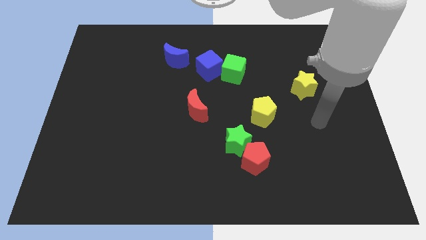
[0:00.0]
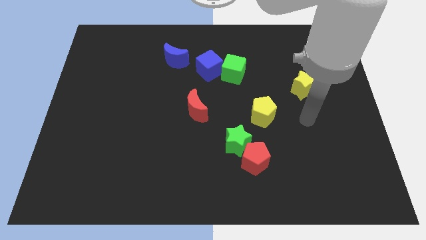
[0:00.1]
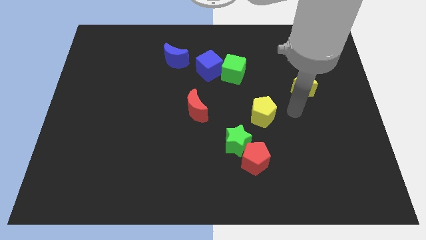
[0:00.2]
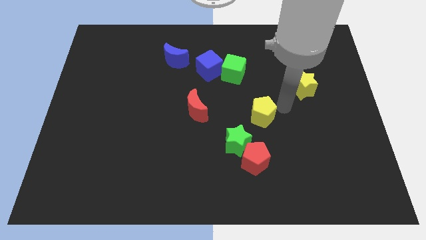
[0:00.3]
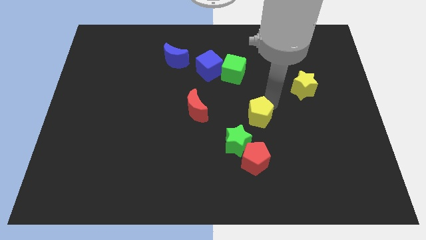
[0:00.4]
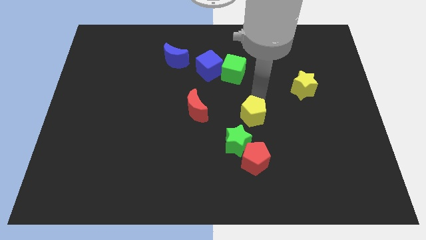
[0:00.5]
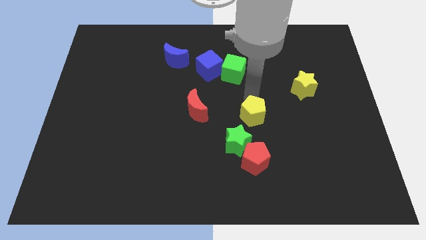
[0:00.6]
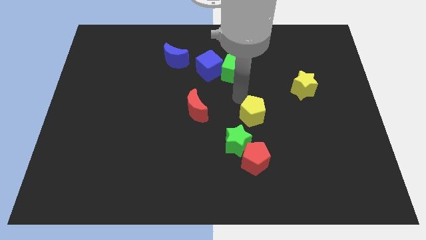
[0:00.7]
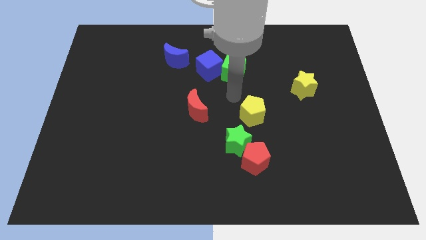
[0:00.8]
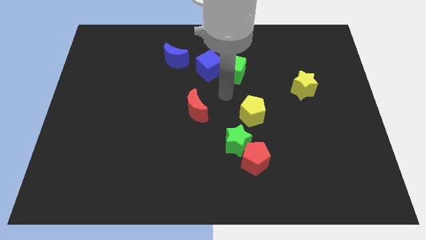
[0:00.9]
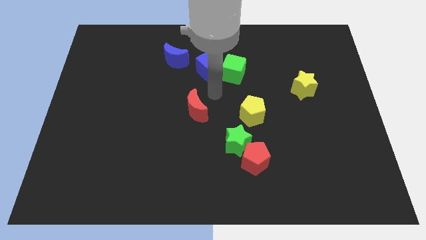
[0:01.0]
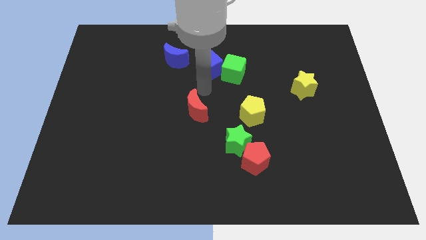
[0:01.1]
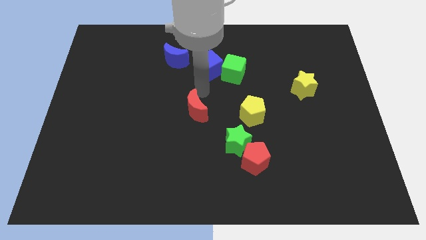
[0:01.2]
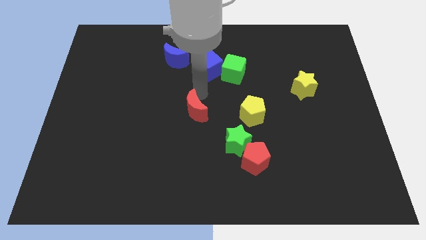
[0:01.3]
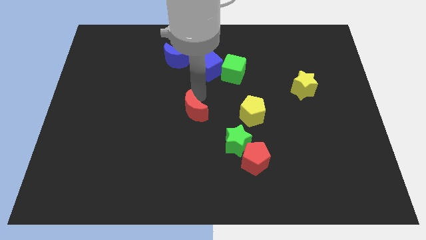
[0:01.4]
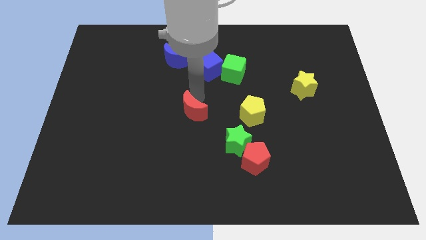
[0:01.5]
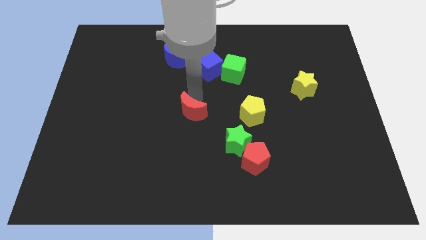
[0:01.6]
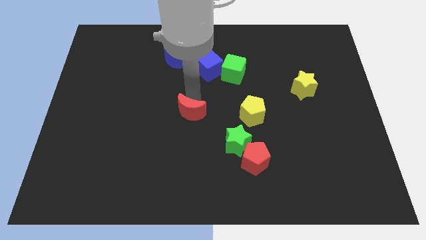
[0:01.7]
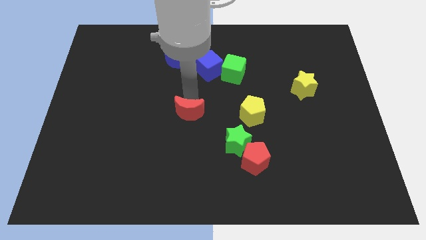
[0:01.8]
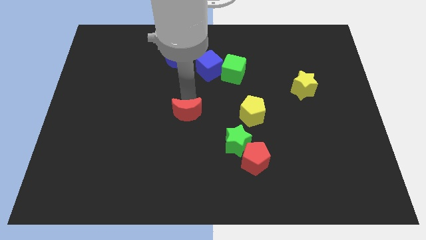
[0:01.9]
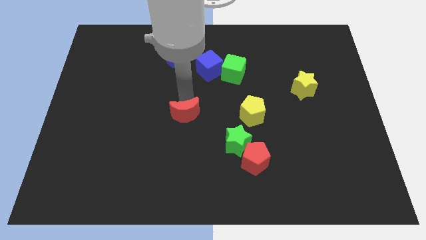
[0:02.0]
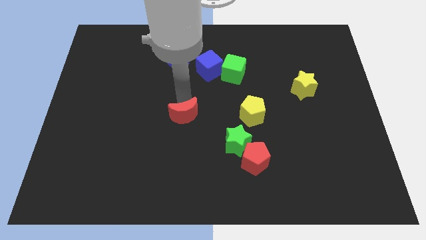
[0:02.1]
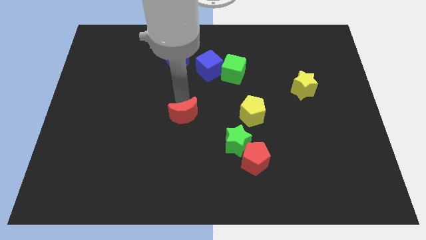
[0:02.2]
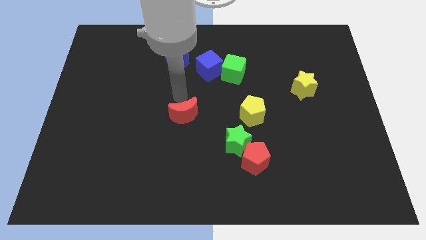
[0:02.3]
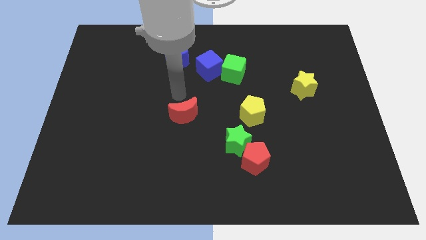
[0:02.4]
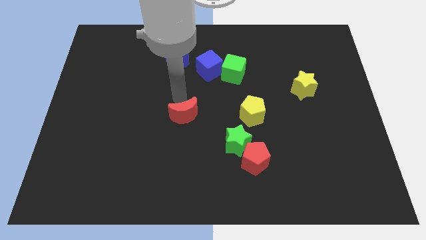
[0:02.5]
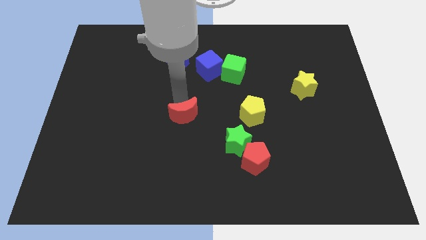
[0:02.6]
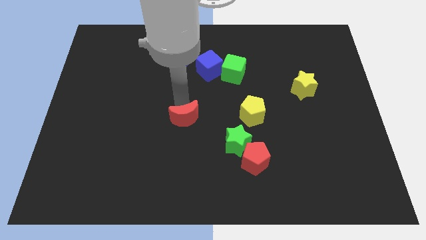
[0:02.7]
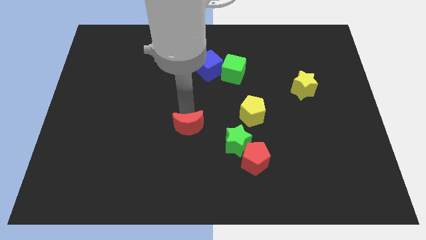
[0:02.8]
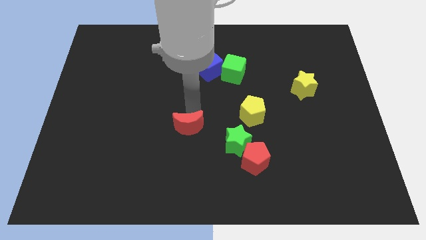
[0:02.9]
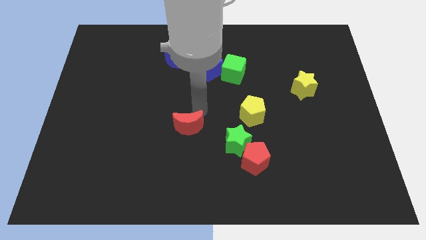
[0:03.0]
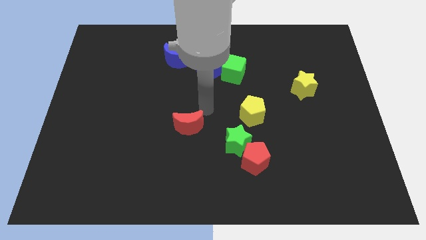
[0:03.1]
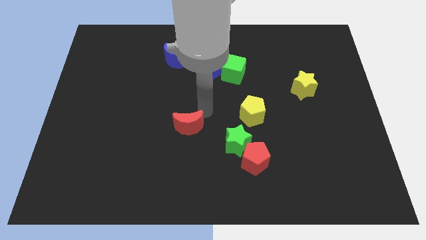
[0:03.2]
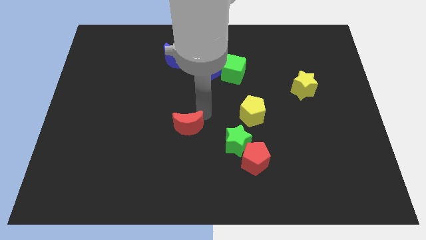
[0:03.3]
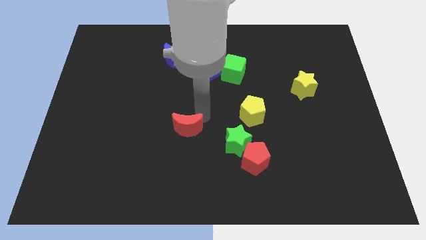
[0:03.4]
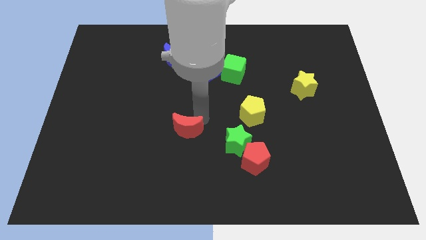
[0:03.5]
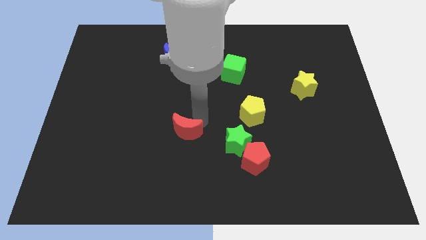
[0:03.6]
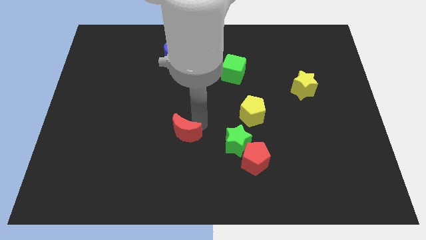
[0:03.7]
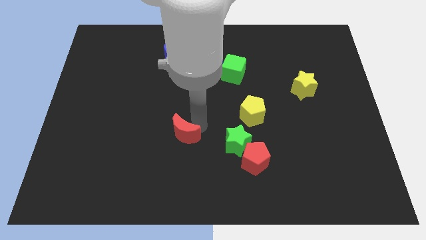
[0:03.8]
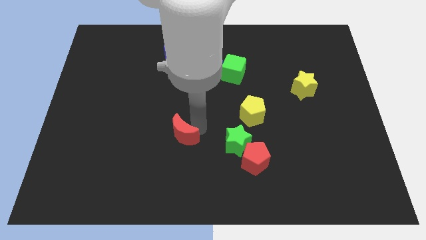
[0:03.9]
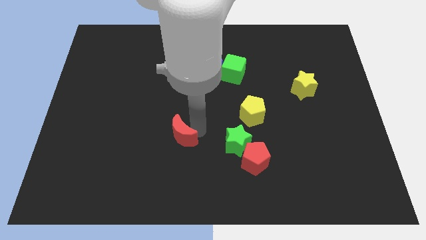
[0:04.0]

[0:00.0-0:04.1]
slightly push the red moon down and then left

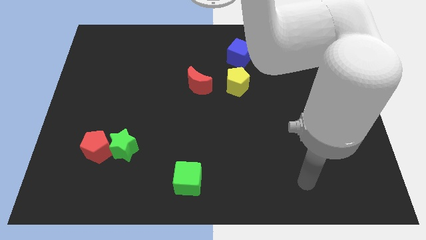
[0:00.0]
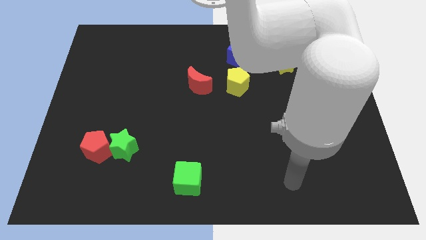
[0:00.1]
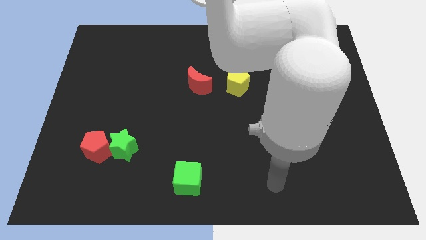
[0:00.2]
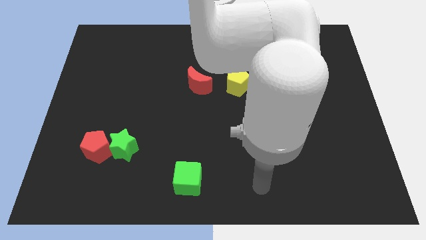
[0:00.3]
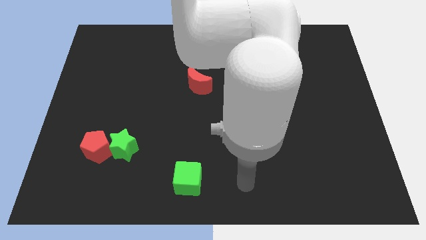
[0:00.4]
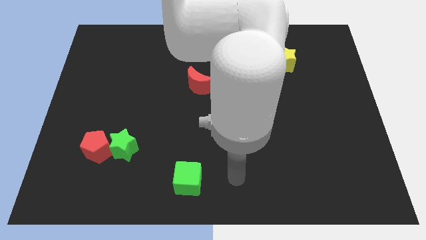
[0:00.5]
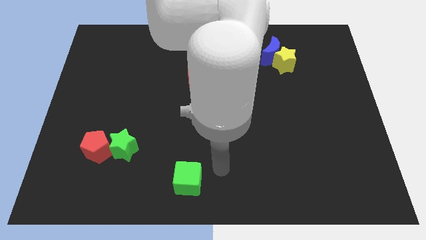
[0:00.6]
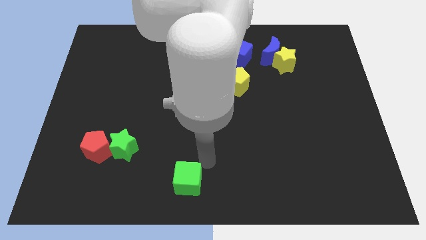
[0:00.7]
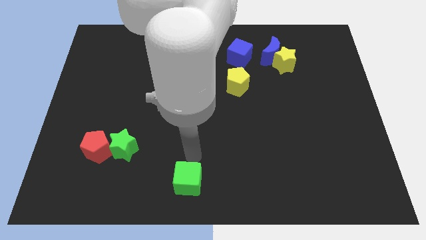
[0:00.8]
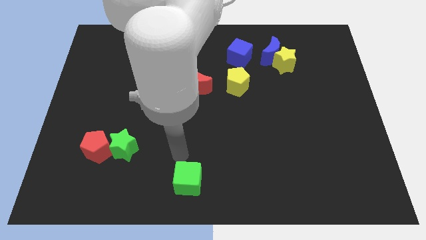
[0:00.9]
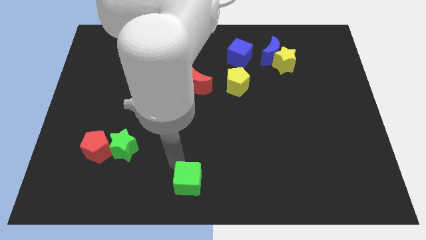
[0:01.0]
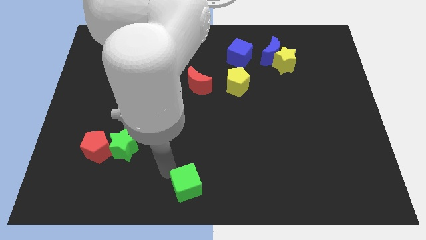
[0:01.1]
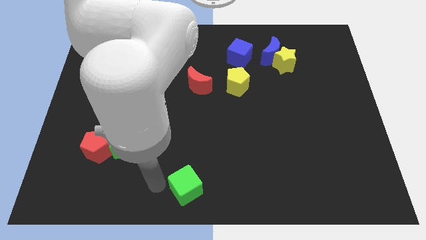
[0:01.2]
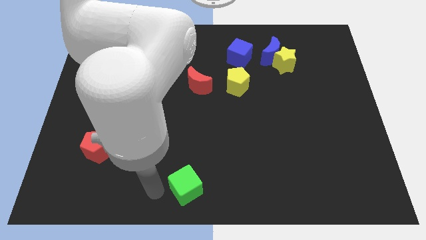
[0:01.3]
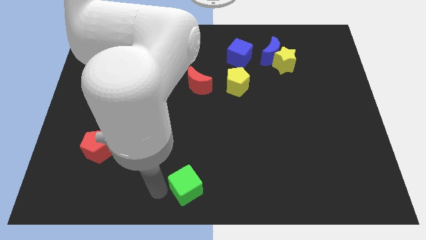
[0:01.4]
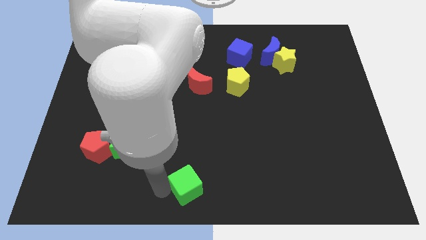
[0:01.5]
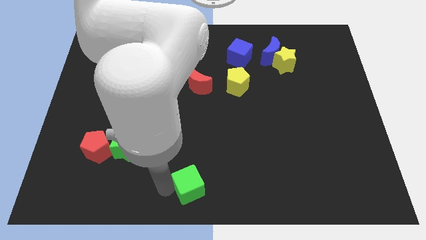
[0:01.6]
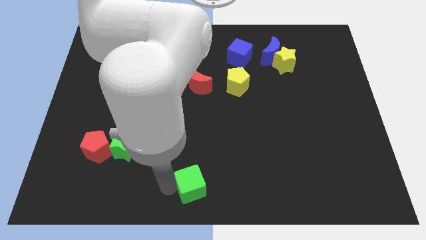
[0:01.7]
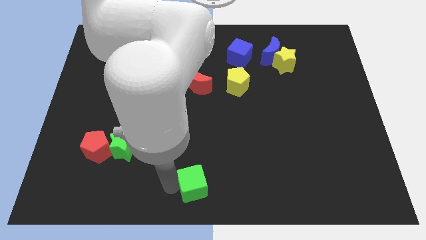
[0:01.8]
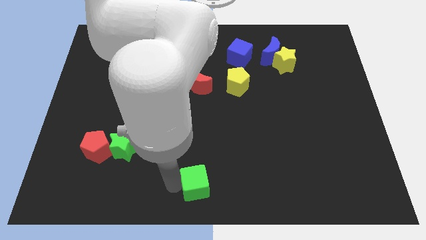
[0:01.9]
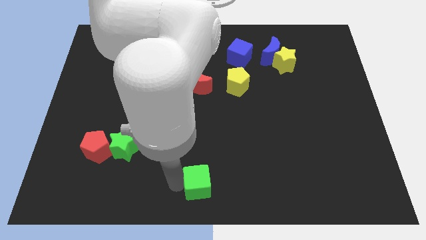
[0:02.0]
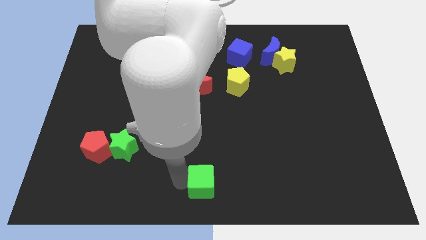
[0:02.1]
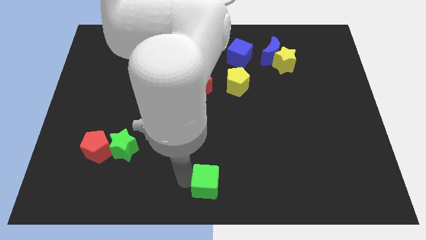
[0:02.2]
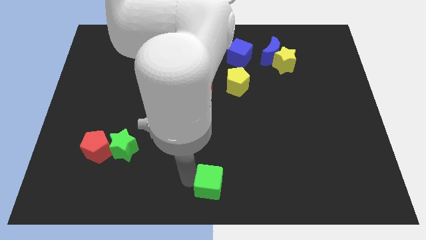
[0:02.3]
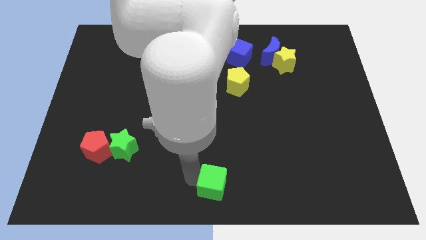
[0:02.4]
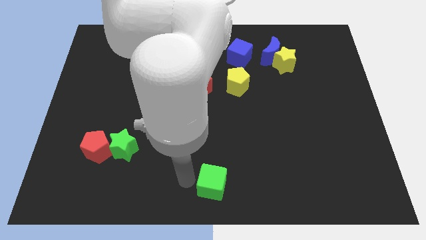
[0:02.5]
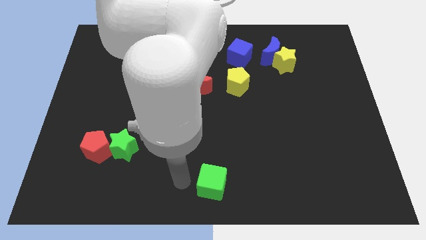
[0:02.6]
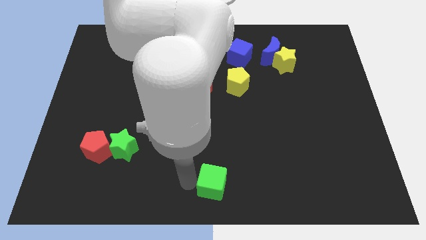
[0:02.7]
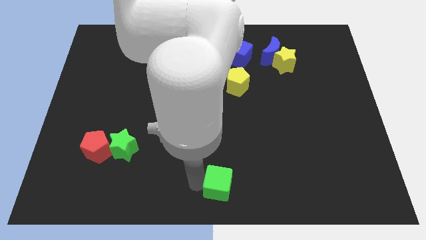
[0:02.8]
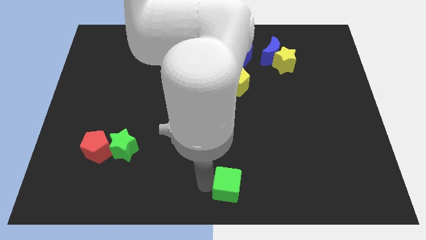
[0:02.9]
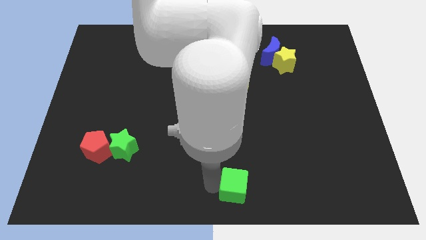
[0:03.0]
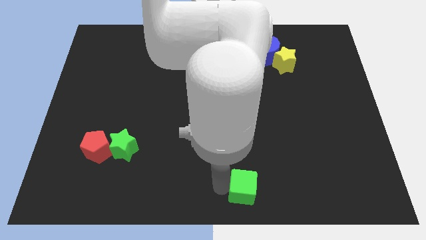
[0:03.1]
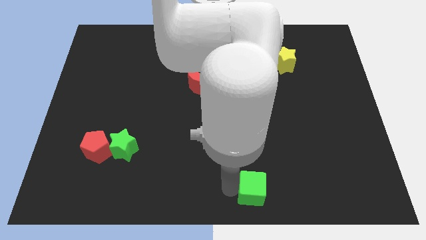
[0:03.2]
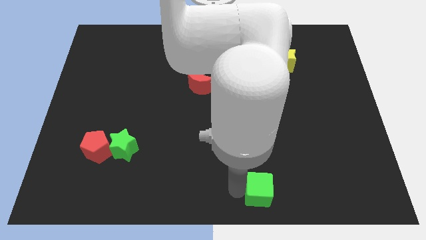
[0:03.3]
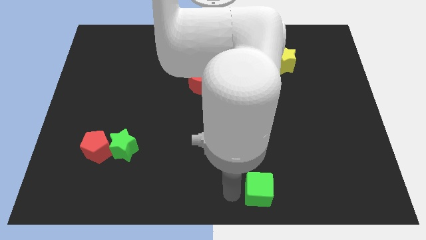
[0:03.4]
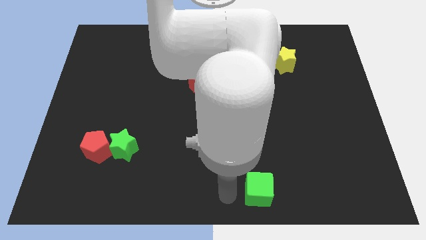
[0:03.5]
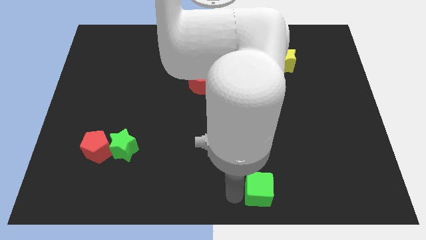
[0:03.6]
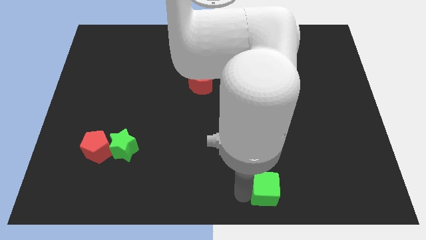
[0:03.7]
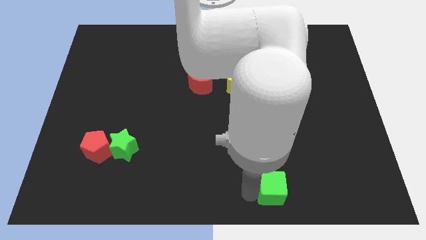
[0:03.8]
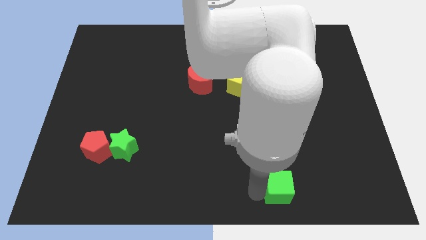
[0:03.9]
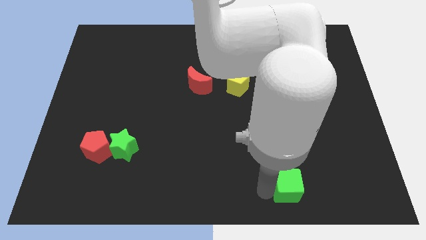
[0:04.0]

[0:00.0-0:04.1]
push the green cube to the right
